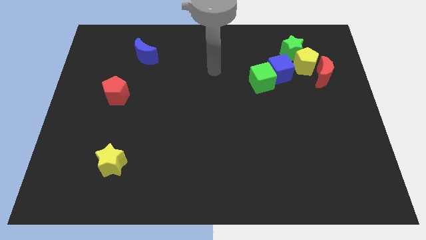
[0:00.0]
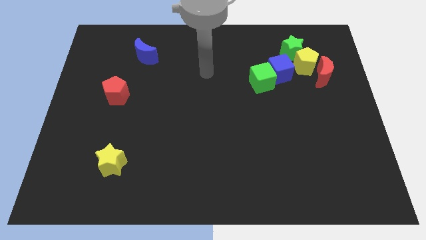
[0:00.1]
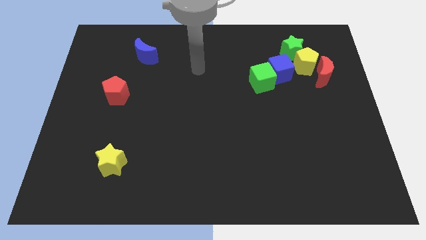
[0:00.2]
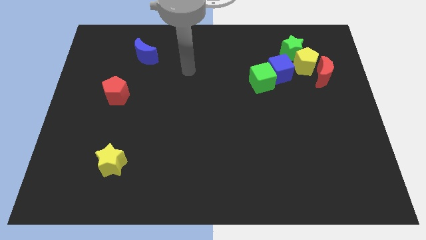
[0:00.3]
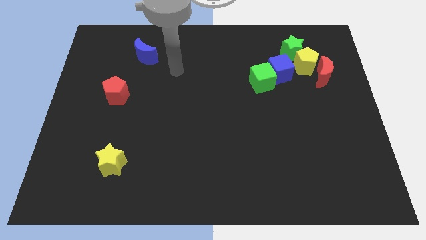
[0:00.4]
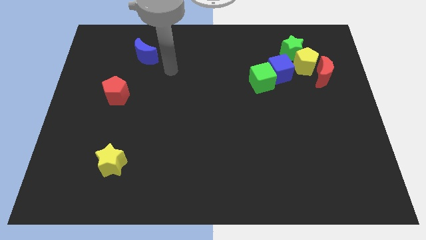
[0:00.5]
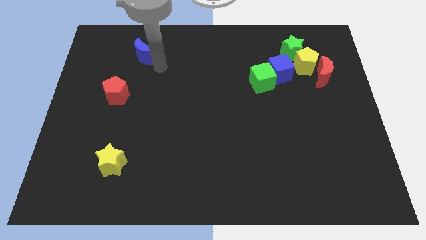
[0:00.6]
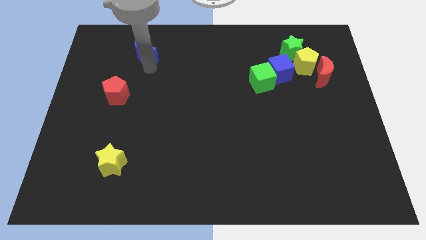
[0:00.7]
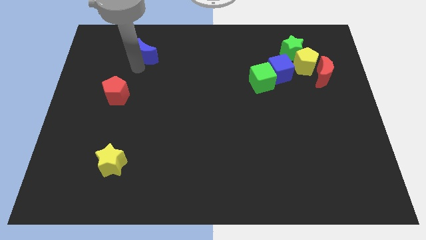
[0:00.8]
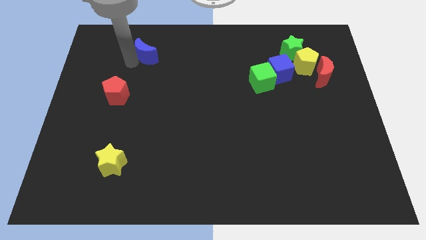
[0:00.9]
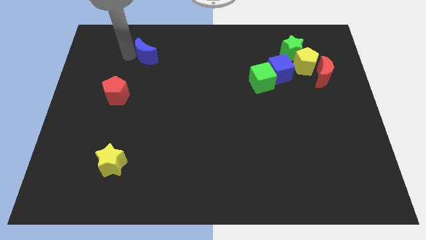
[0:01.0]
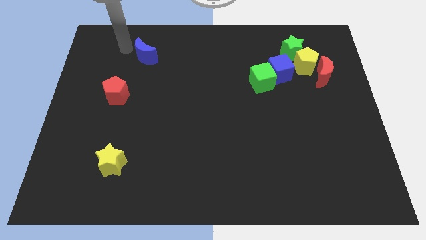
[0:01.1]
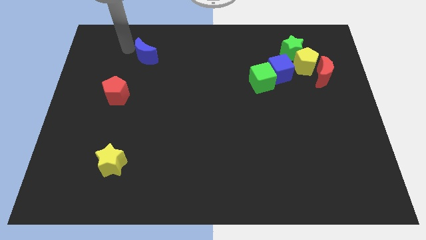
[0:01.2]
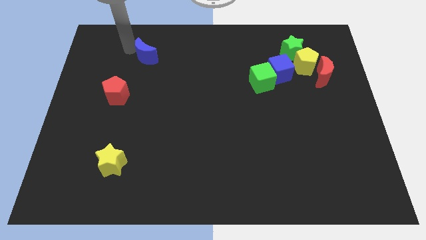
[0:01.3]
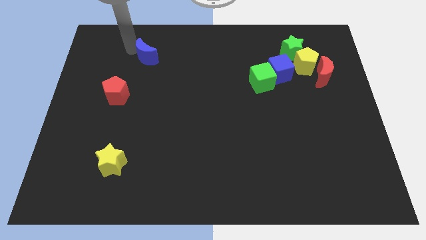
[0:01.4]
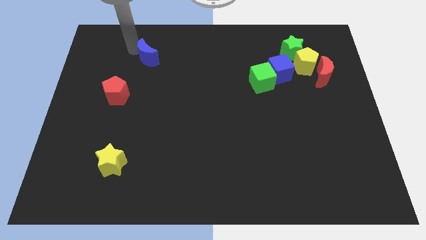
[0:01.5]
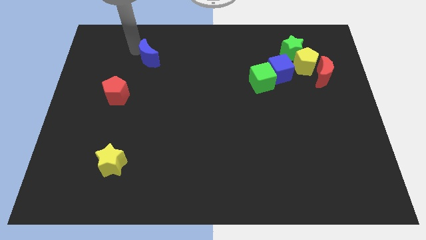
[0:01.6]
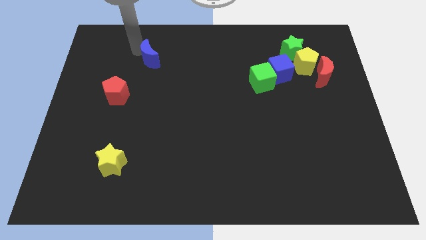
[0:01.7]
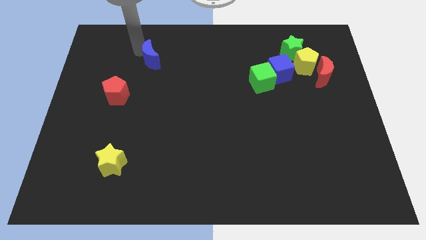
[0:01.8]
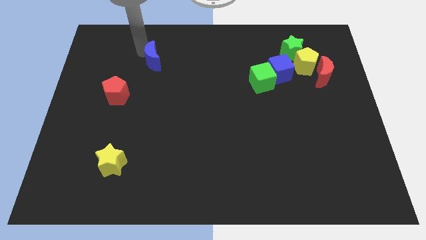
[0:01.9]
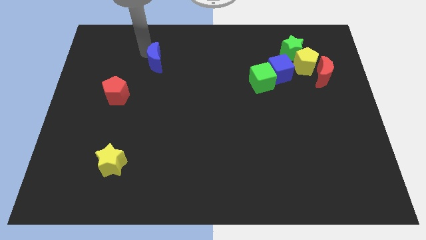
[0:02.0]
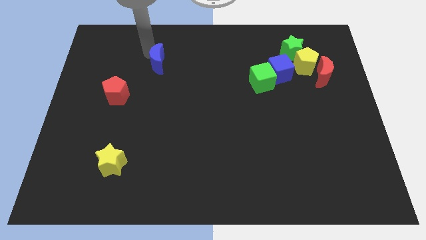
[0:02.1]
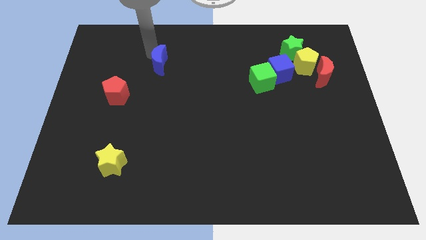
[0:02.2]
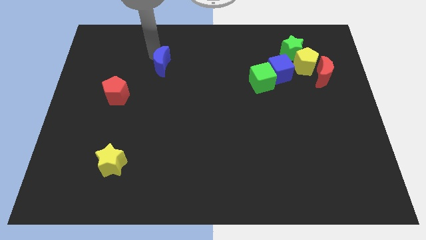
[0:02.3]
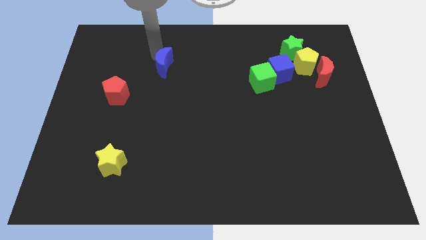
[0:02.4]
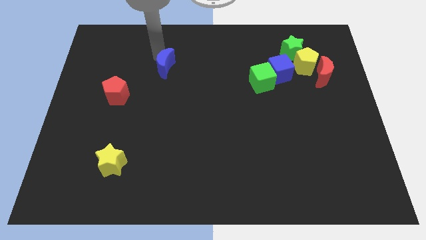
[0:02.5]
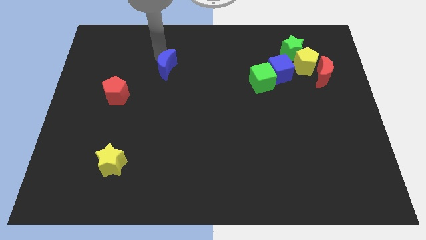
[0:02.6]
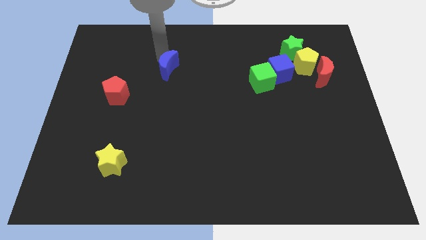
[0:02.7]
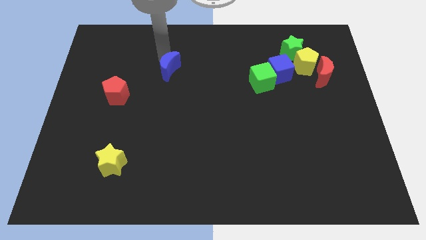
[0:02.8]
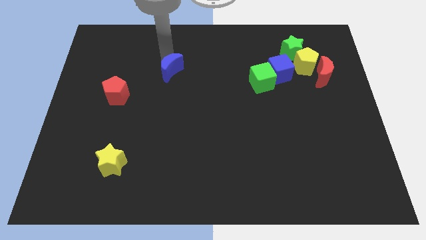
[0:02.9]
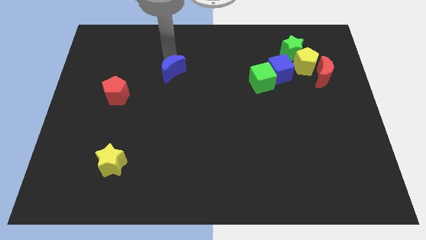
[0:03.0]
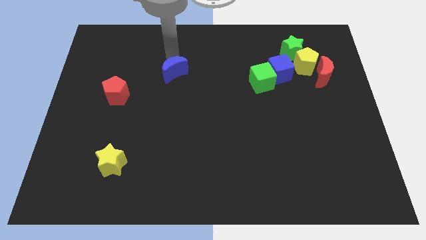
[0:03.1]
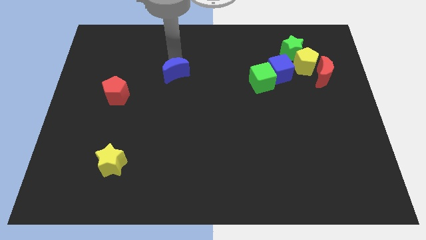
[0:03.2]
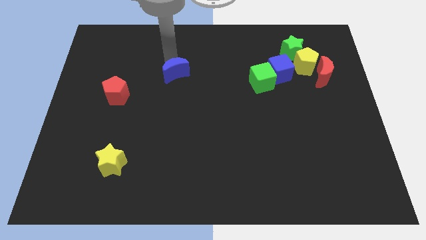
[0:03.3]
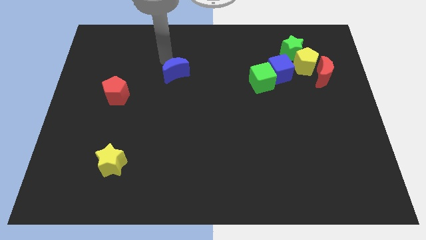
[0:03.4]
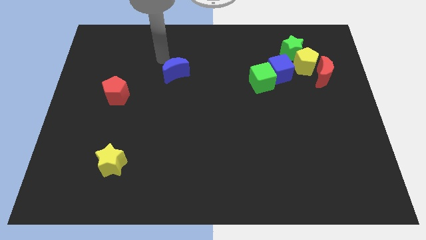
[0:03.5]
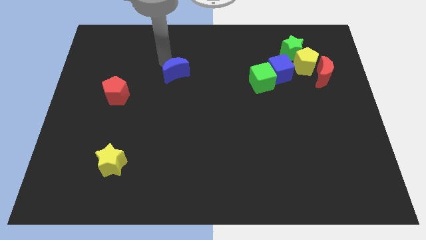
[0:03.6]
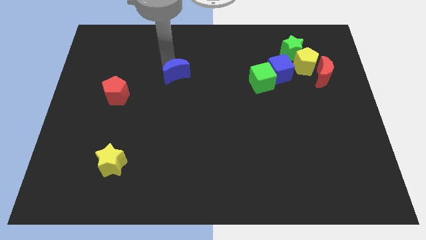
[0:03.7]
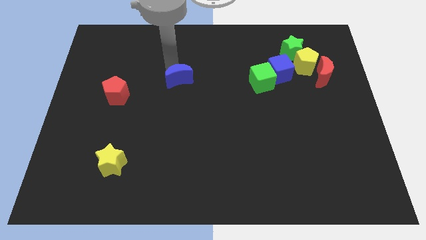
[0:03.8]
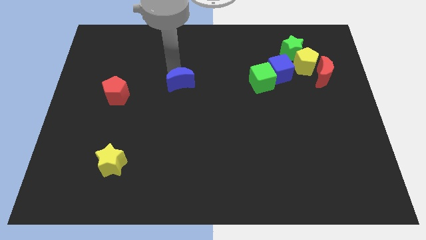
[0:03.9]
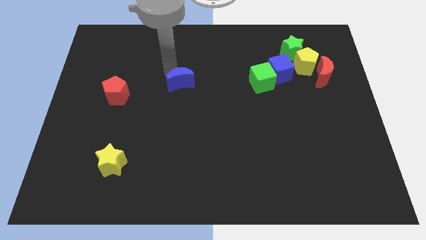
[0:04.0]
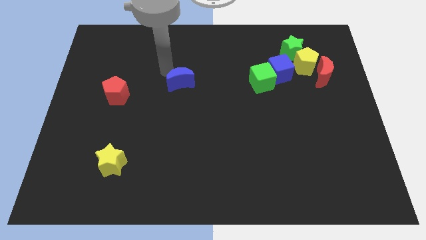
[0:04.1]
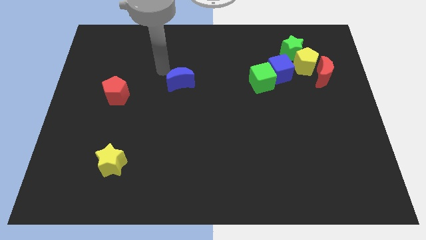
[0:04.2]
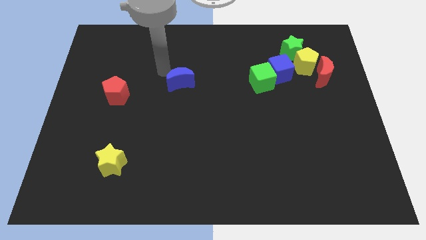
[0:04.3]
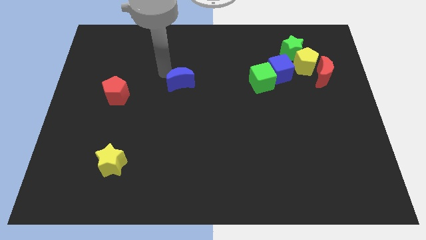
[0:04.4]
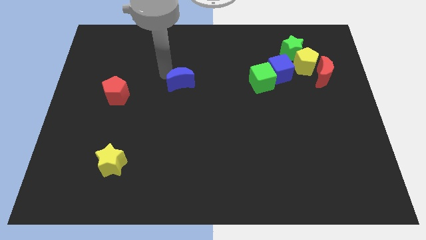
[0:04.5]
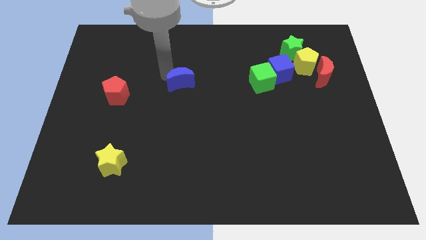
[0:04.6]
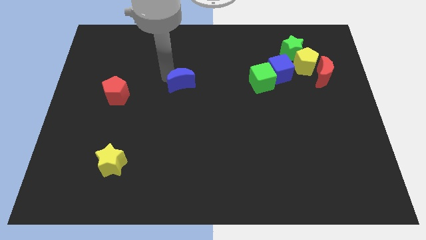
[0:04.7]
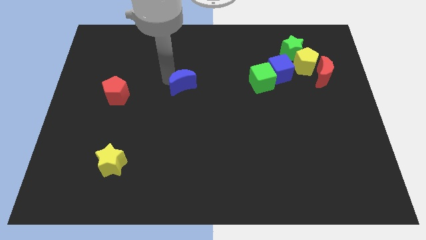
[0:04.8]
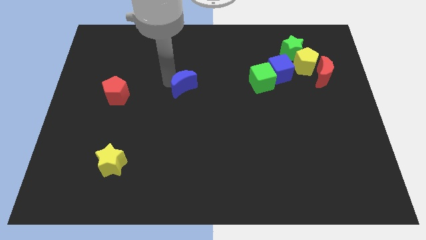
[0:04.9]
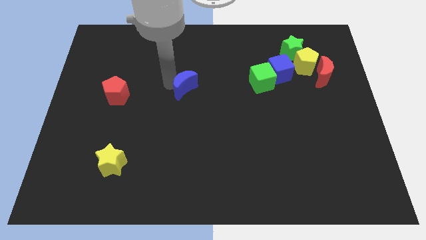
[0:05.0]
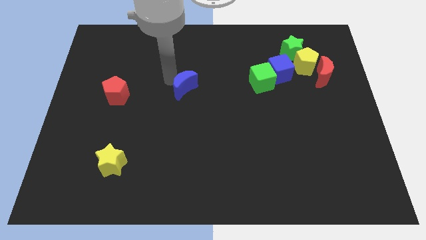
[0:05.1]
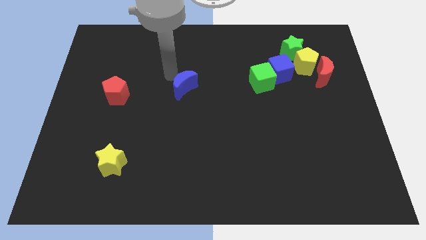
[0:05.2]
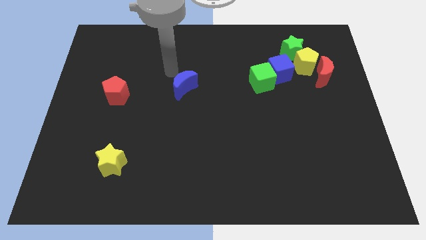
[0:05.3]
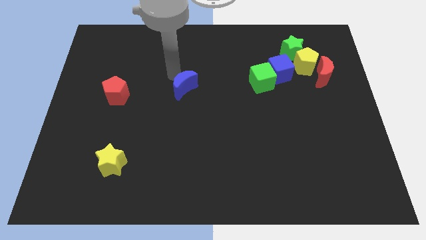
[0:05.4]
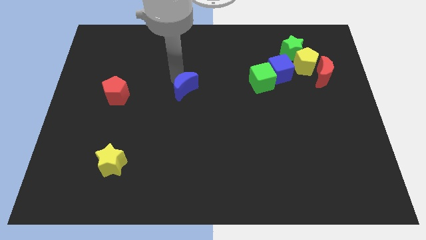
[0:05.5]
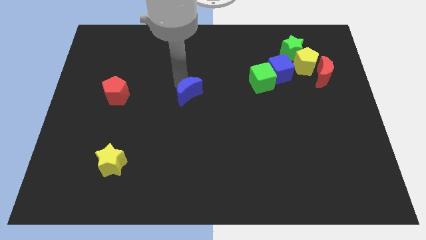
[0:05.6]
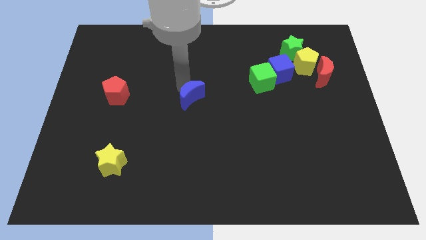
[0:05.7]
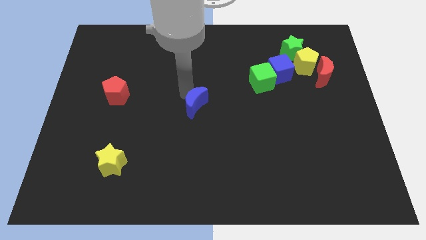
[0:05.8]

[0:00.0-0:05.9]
slide the blue moon down and right

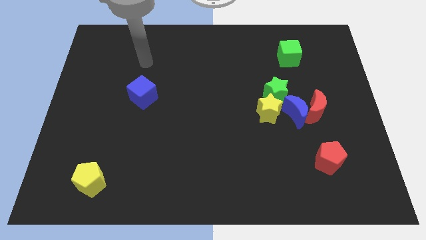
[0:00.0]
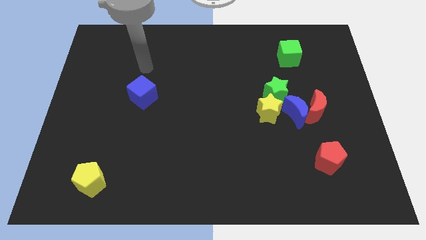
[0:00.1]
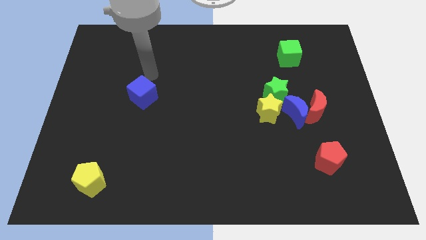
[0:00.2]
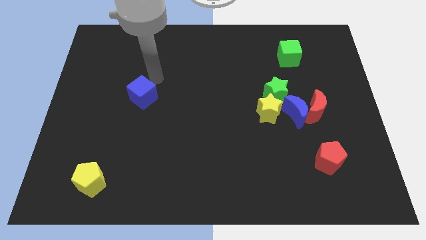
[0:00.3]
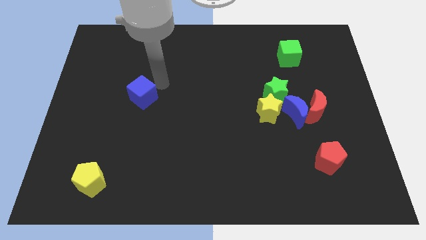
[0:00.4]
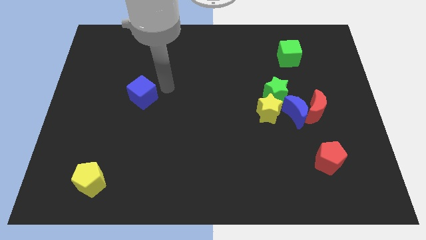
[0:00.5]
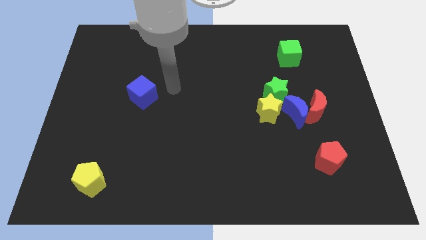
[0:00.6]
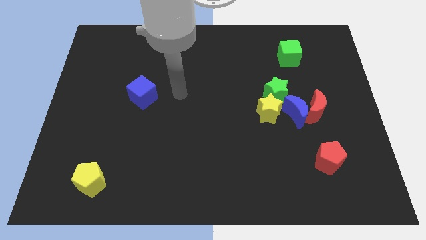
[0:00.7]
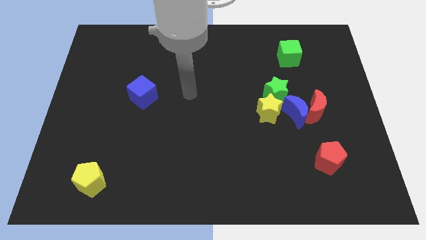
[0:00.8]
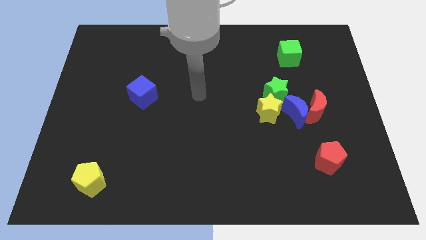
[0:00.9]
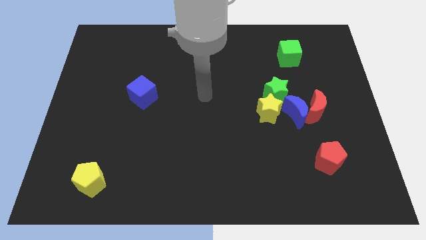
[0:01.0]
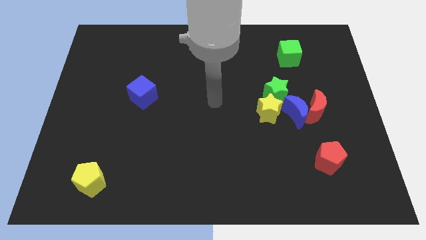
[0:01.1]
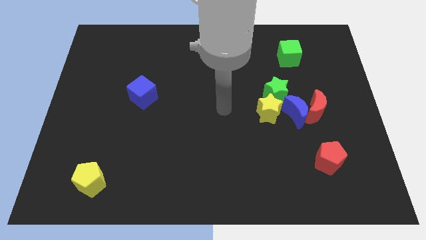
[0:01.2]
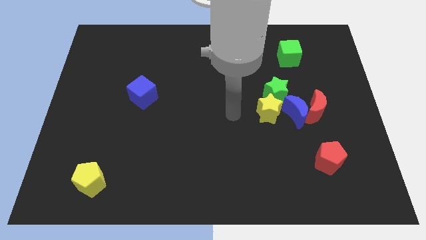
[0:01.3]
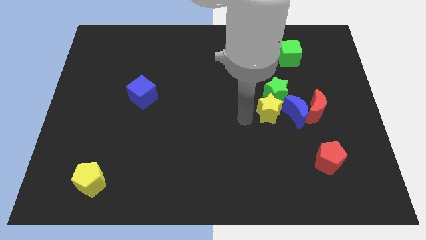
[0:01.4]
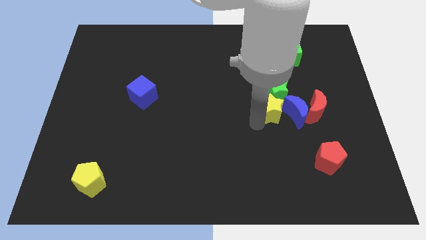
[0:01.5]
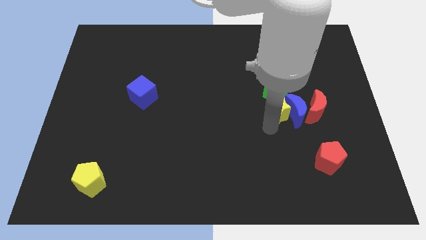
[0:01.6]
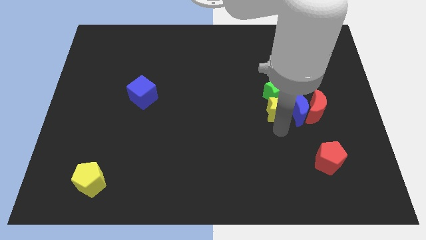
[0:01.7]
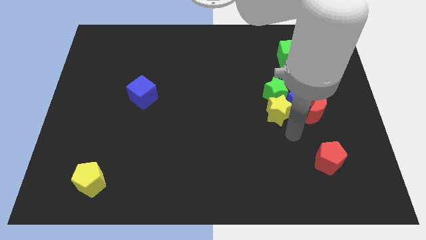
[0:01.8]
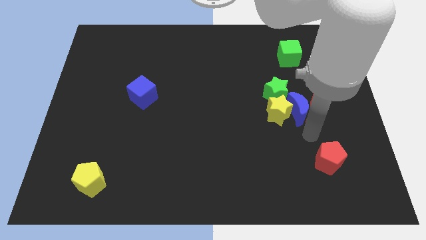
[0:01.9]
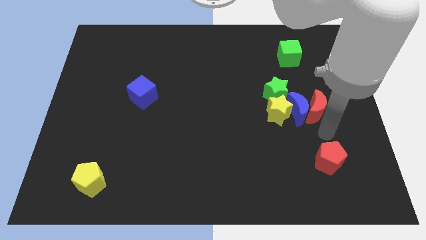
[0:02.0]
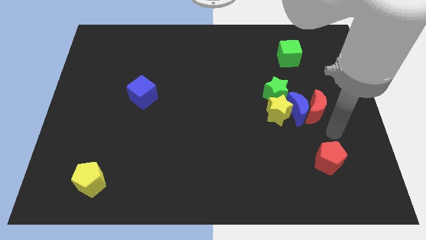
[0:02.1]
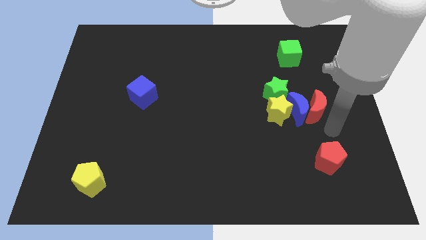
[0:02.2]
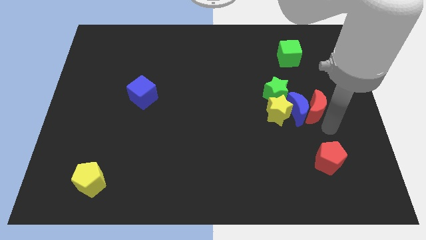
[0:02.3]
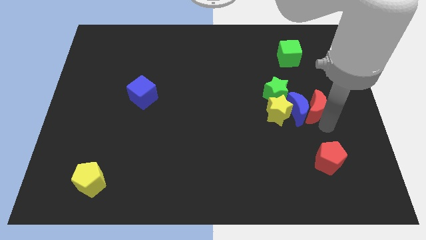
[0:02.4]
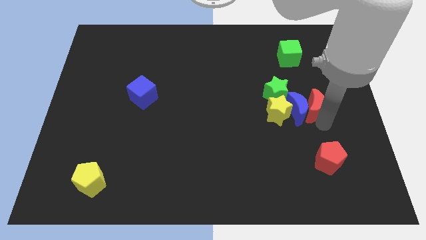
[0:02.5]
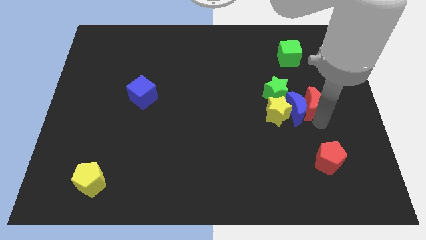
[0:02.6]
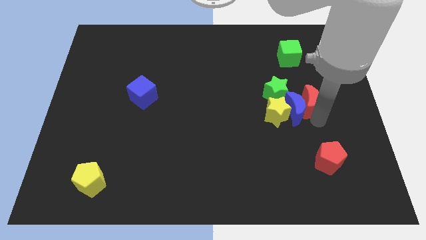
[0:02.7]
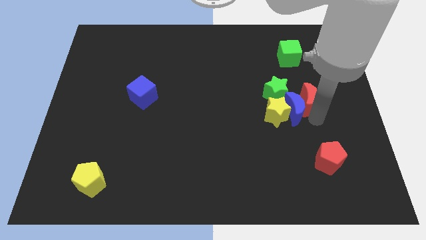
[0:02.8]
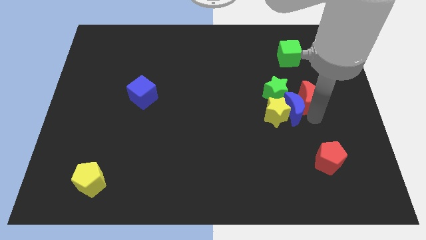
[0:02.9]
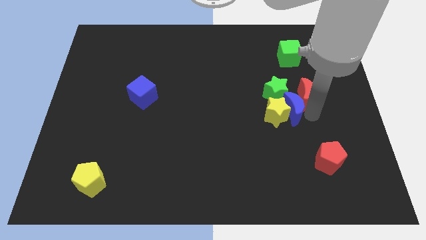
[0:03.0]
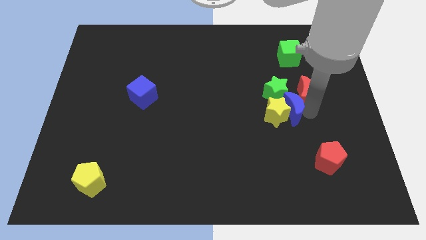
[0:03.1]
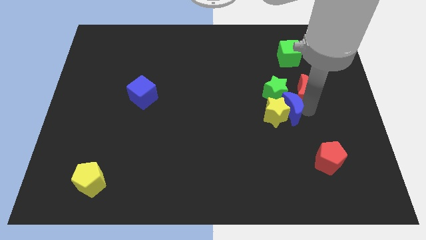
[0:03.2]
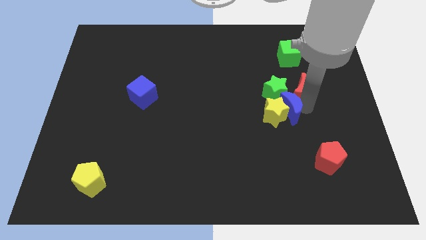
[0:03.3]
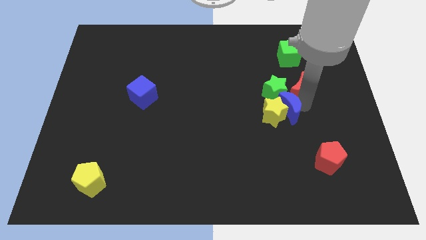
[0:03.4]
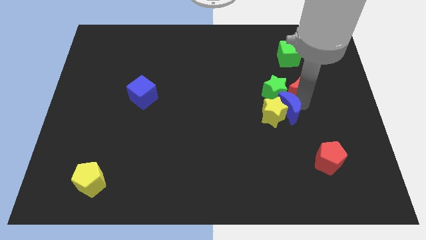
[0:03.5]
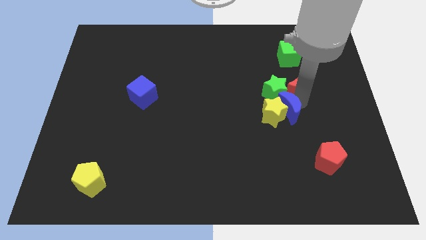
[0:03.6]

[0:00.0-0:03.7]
slide the red moon up and then left a little
